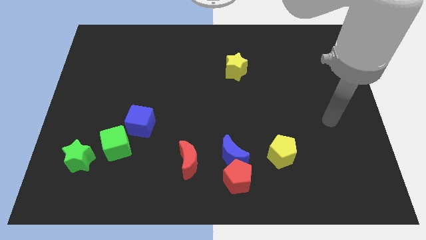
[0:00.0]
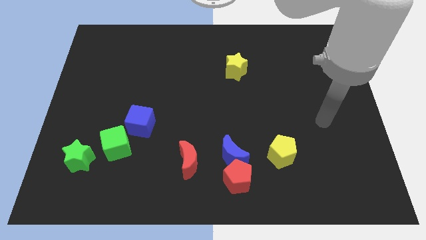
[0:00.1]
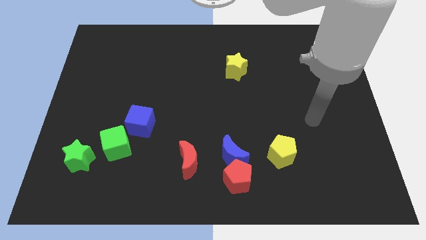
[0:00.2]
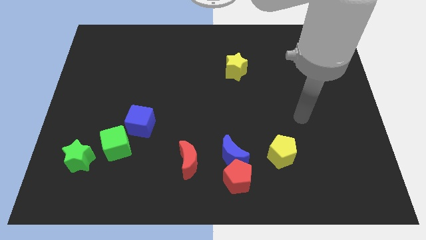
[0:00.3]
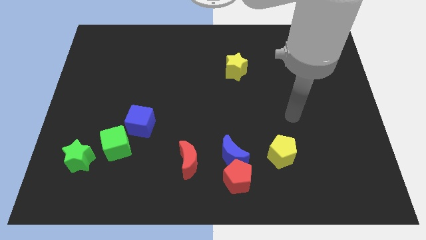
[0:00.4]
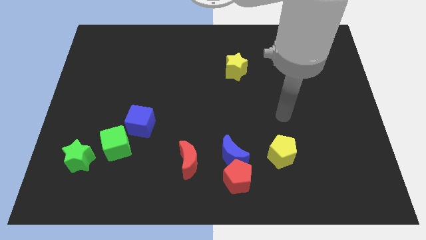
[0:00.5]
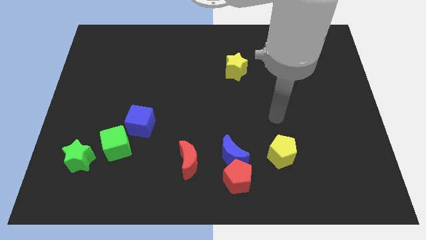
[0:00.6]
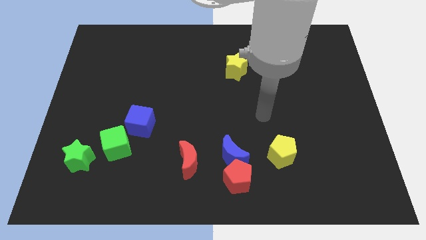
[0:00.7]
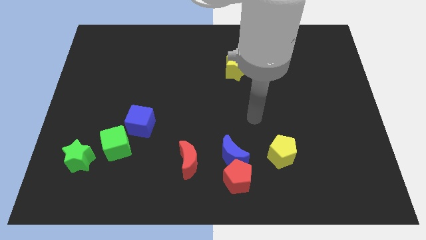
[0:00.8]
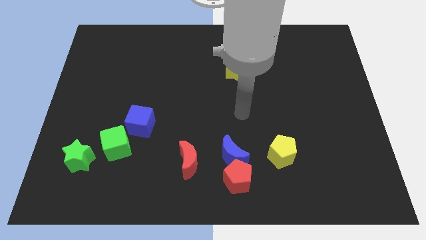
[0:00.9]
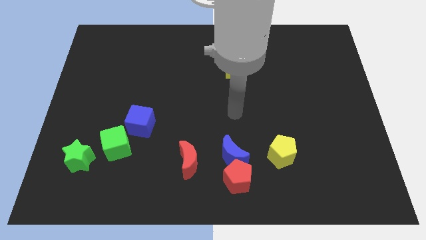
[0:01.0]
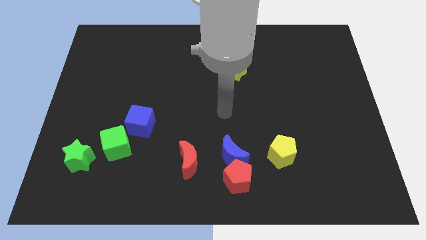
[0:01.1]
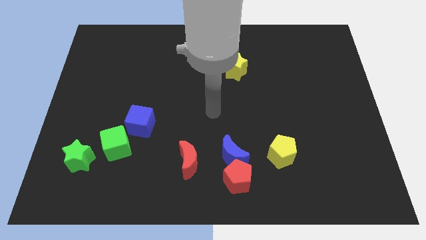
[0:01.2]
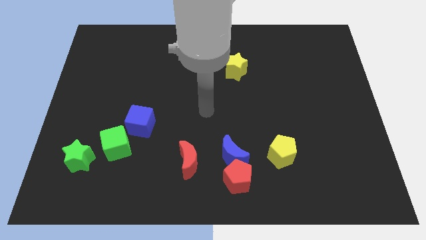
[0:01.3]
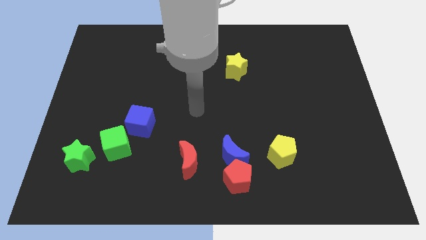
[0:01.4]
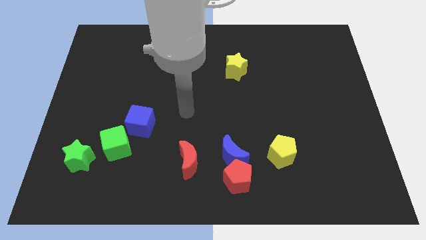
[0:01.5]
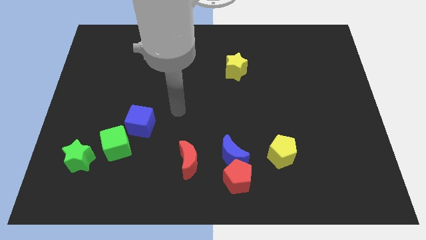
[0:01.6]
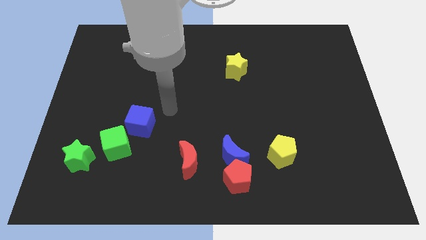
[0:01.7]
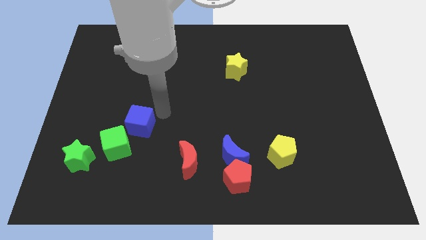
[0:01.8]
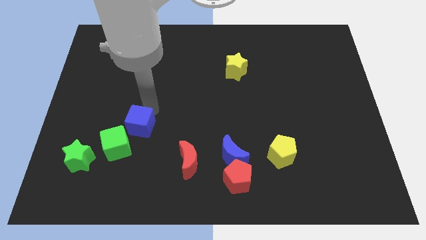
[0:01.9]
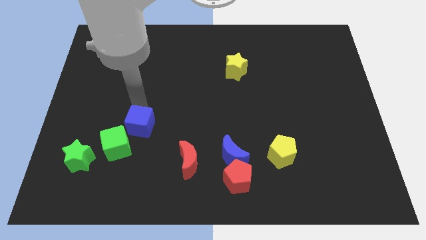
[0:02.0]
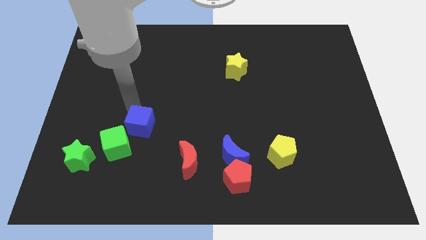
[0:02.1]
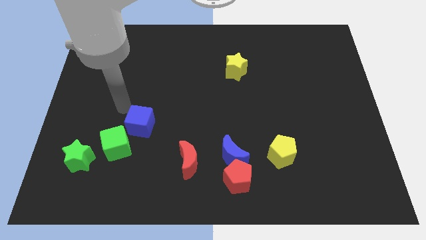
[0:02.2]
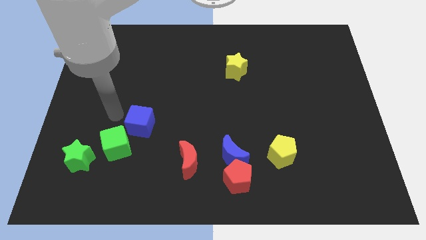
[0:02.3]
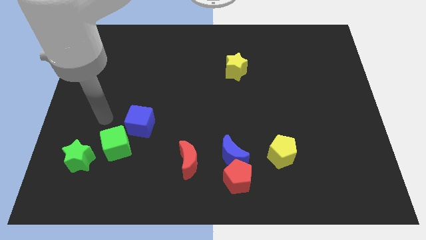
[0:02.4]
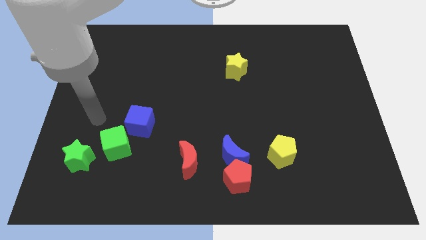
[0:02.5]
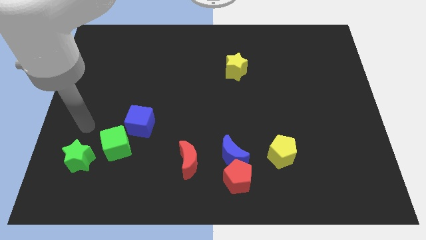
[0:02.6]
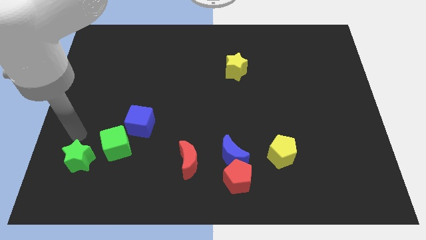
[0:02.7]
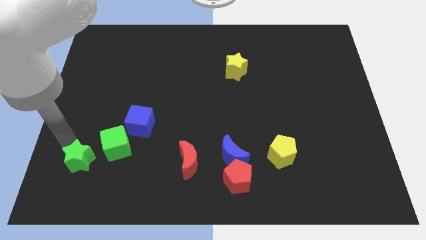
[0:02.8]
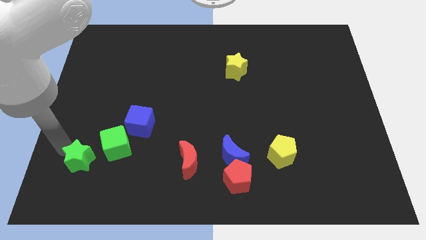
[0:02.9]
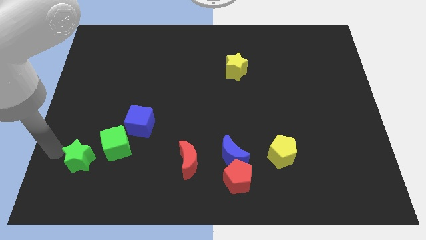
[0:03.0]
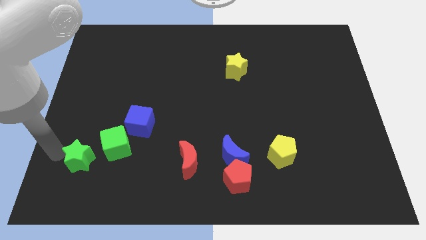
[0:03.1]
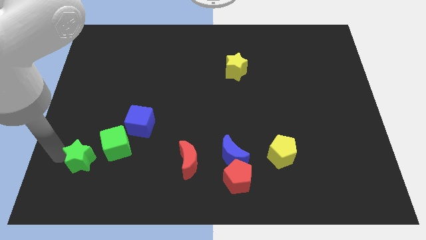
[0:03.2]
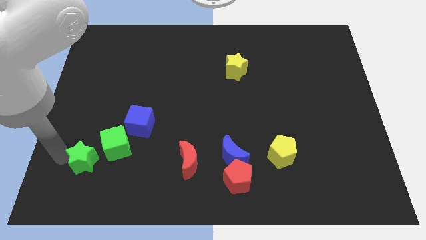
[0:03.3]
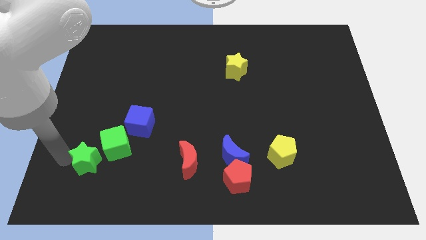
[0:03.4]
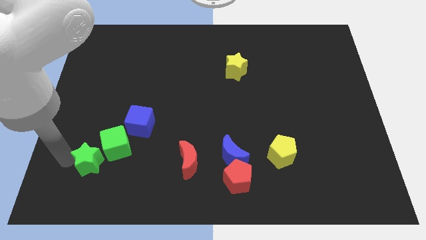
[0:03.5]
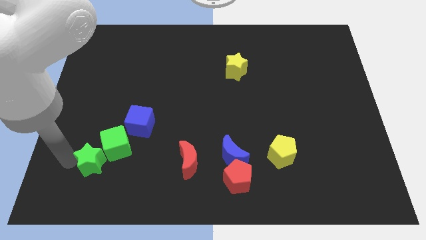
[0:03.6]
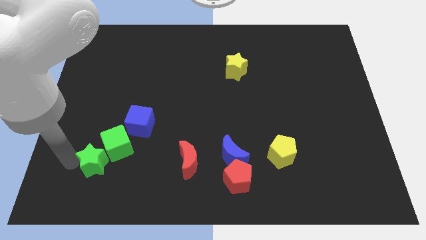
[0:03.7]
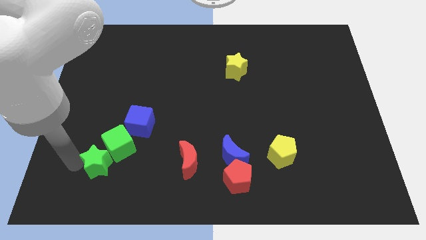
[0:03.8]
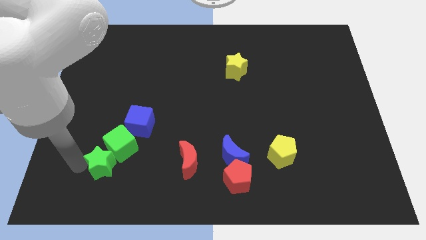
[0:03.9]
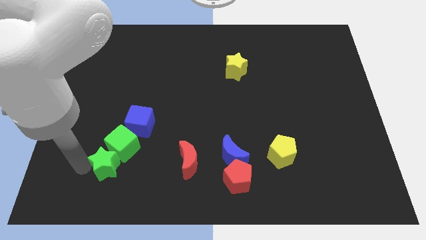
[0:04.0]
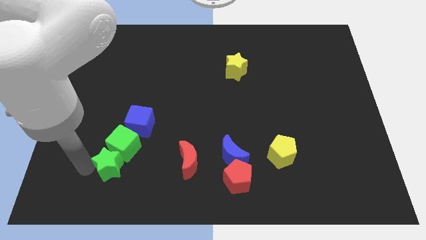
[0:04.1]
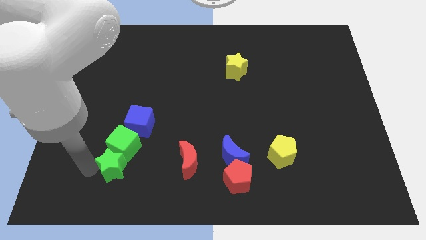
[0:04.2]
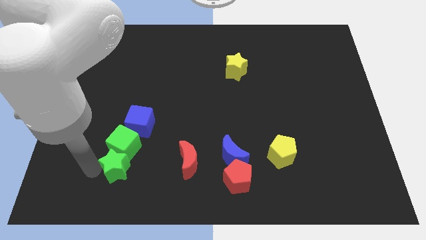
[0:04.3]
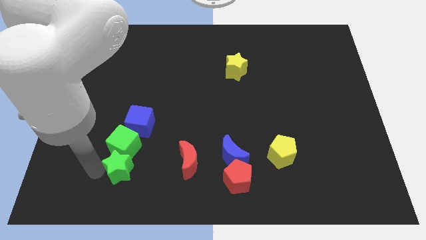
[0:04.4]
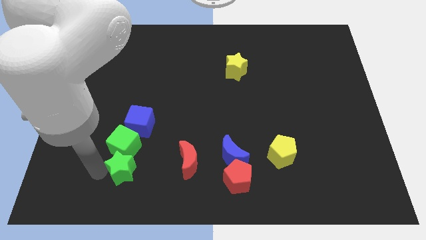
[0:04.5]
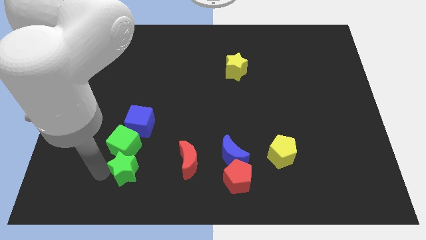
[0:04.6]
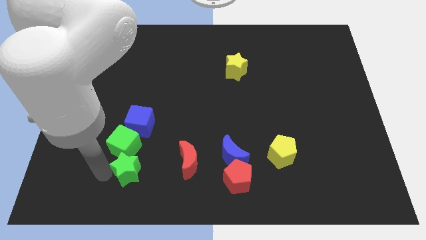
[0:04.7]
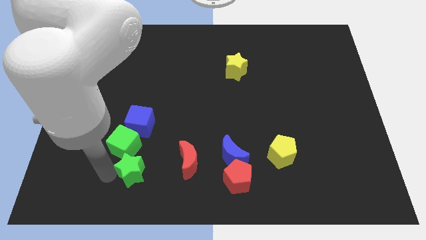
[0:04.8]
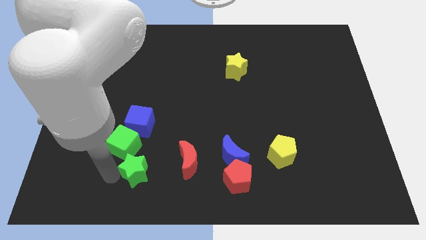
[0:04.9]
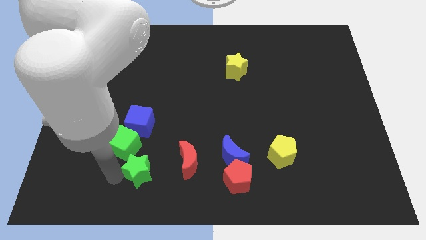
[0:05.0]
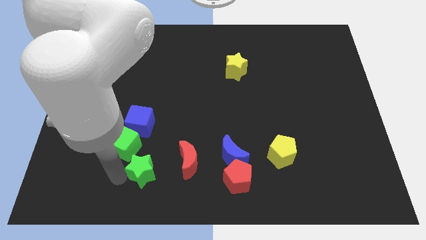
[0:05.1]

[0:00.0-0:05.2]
move the green star to the bottom left of the red moon

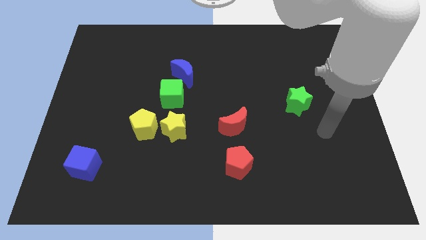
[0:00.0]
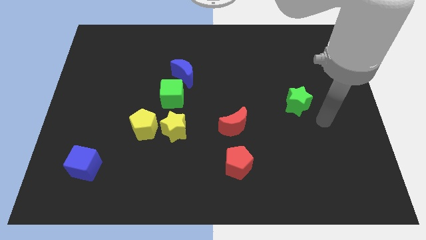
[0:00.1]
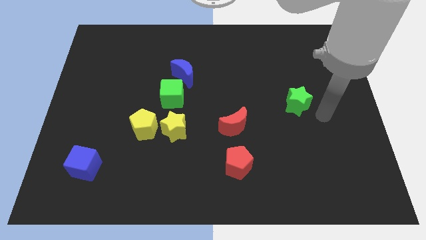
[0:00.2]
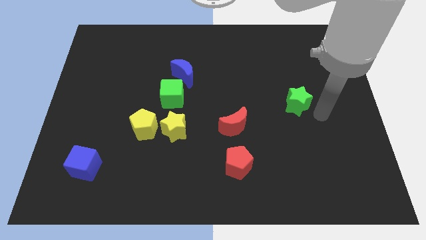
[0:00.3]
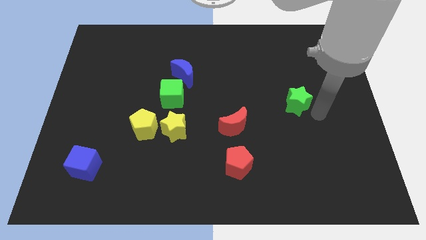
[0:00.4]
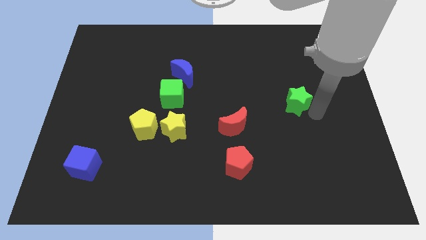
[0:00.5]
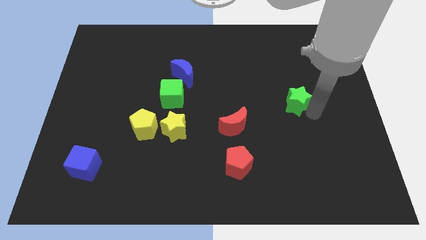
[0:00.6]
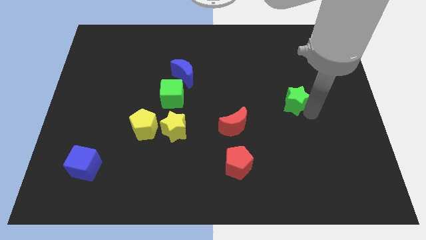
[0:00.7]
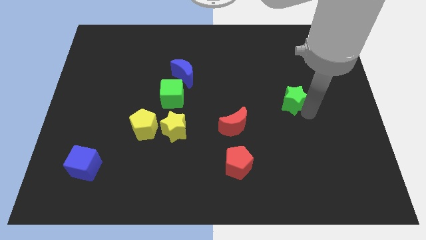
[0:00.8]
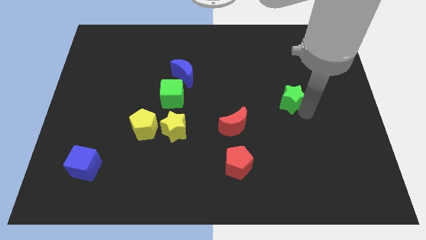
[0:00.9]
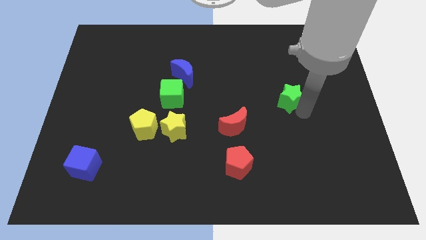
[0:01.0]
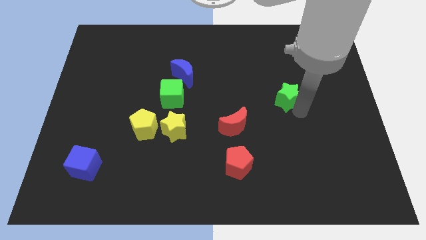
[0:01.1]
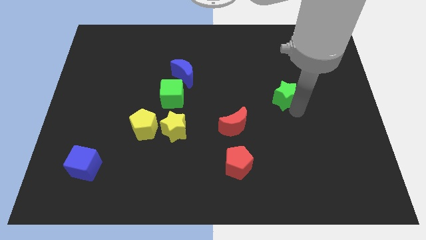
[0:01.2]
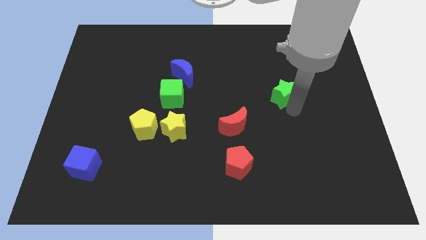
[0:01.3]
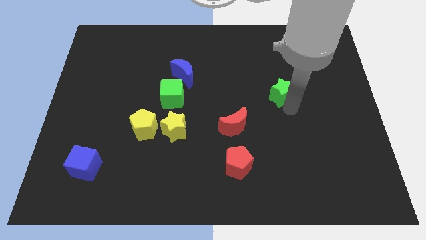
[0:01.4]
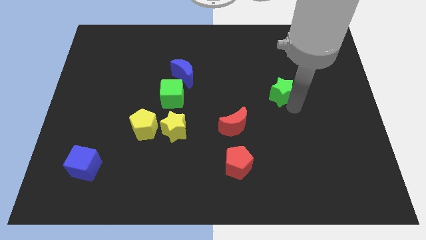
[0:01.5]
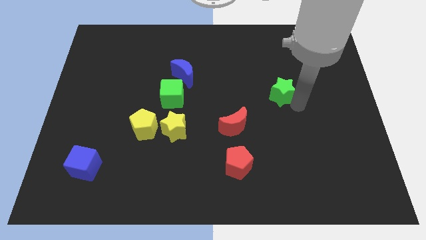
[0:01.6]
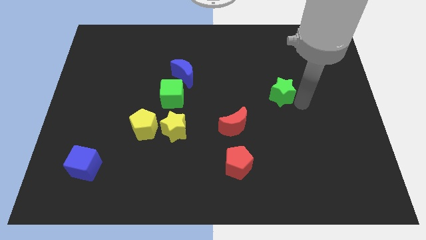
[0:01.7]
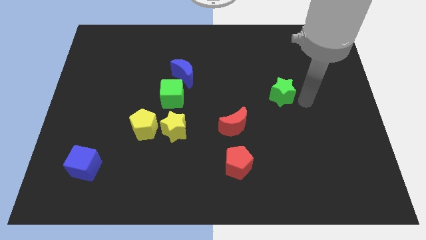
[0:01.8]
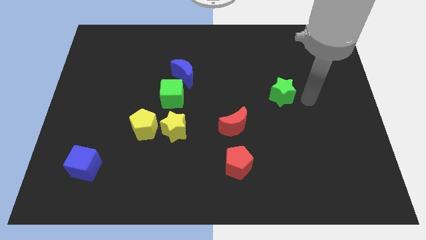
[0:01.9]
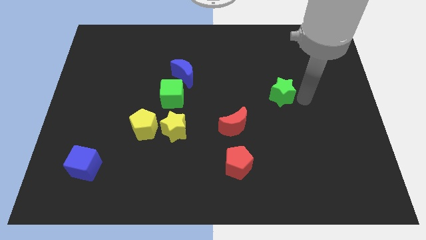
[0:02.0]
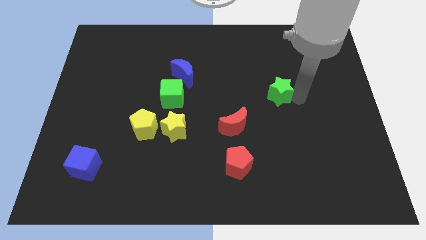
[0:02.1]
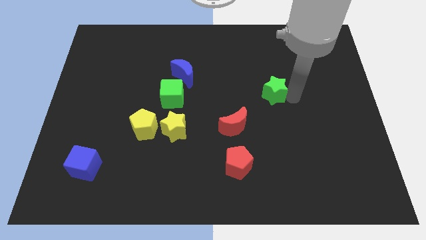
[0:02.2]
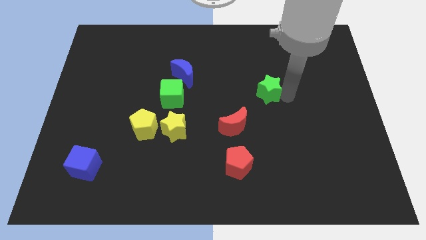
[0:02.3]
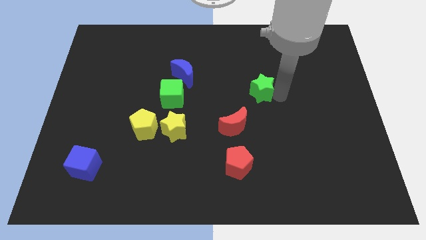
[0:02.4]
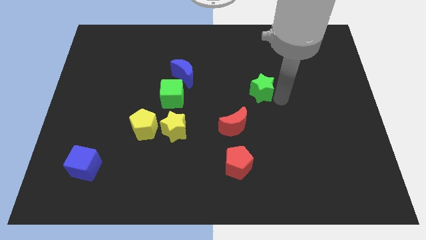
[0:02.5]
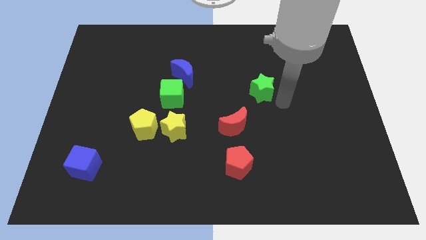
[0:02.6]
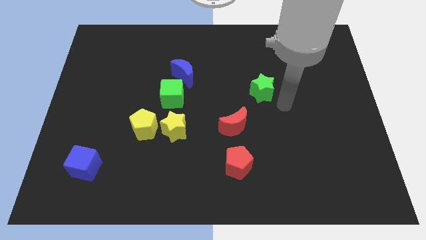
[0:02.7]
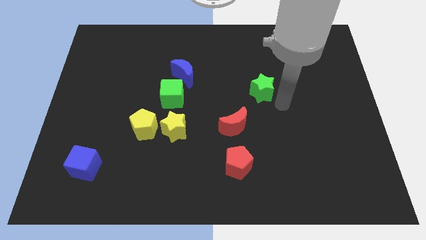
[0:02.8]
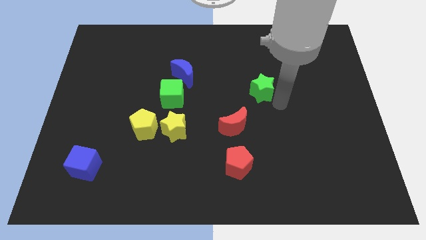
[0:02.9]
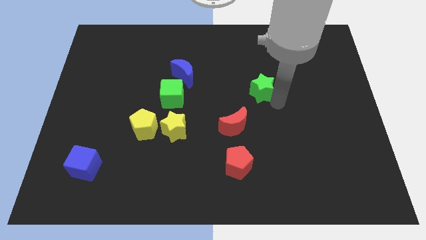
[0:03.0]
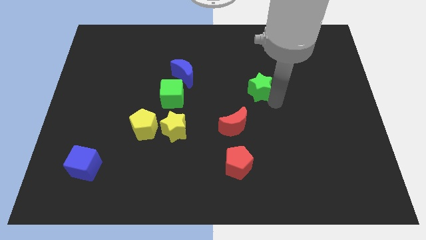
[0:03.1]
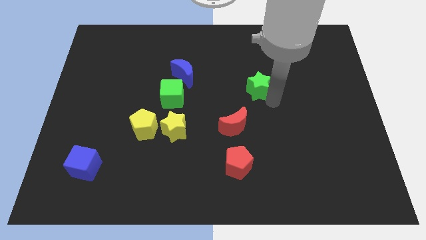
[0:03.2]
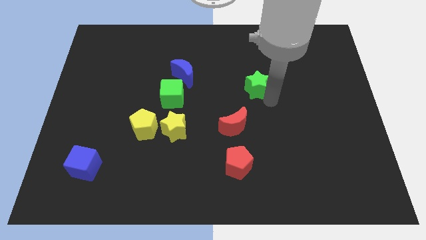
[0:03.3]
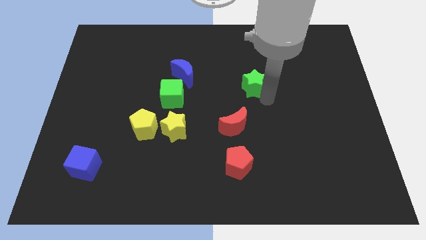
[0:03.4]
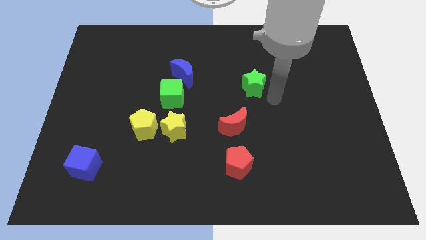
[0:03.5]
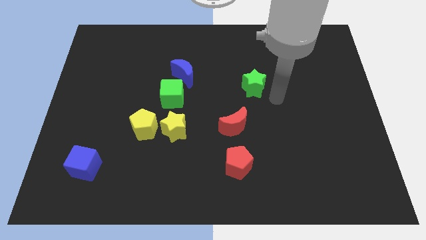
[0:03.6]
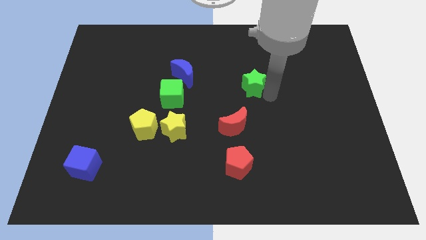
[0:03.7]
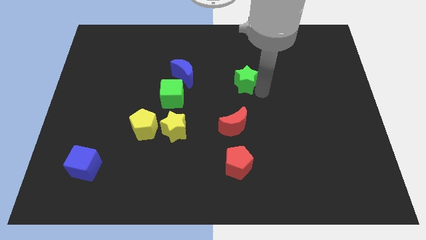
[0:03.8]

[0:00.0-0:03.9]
put the green star right of the blue moon
